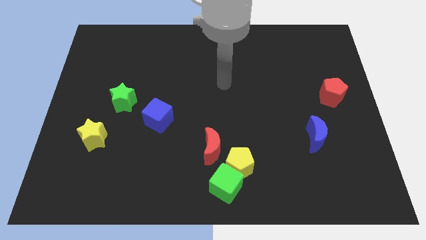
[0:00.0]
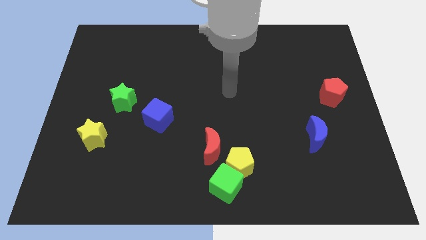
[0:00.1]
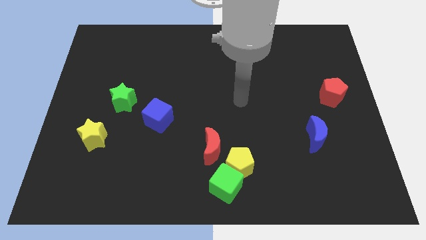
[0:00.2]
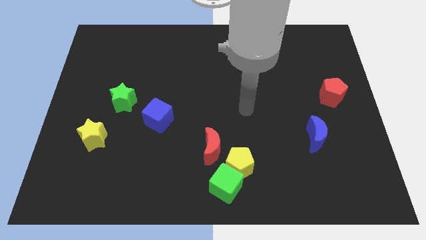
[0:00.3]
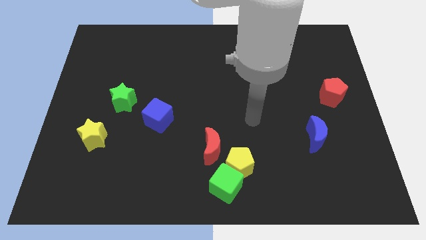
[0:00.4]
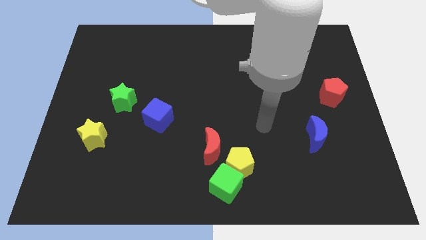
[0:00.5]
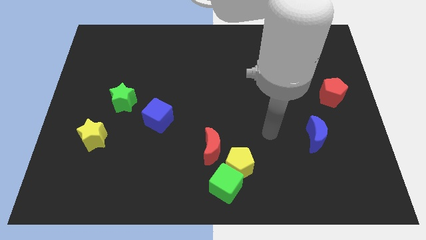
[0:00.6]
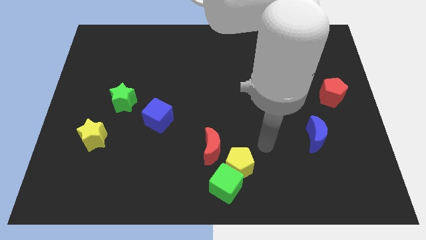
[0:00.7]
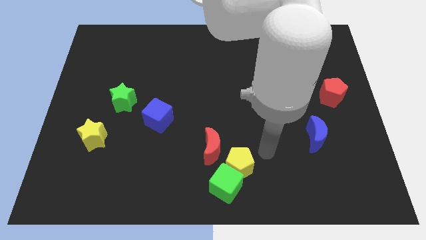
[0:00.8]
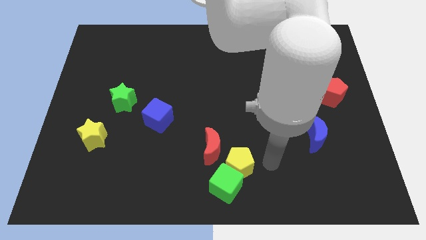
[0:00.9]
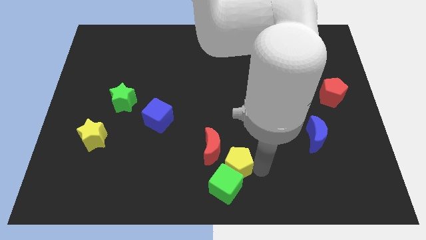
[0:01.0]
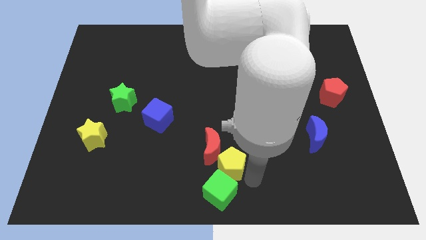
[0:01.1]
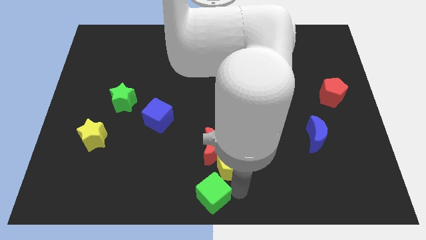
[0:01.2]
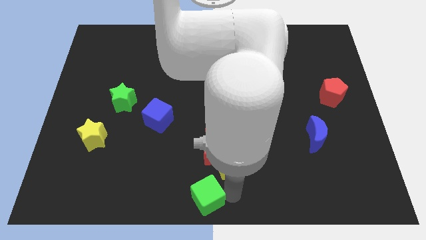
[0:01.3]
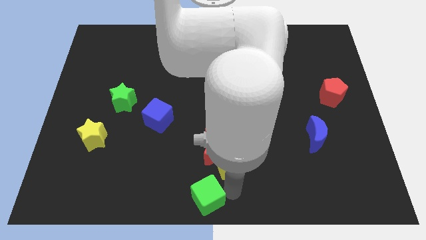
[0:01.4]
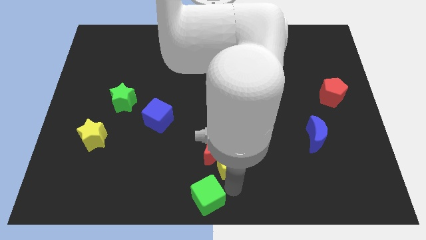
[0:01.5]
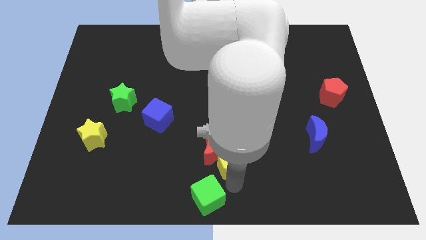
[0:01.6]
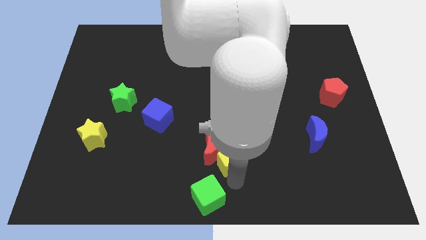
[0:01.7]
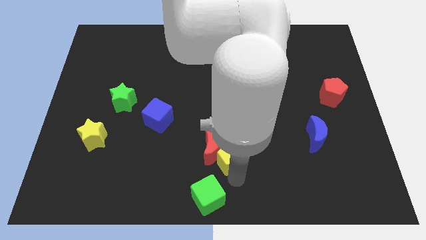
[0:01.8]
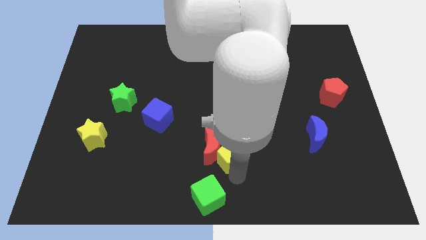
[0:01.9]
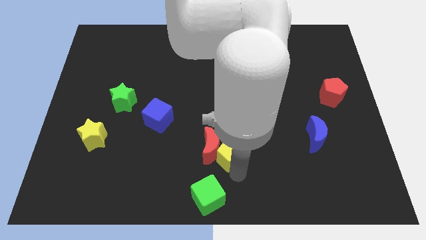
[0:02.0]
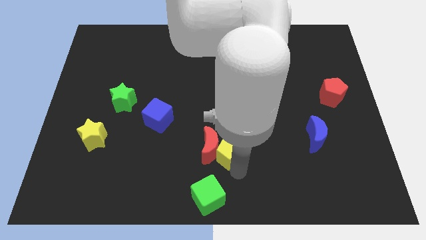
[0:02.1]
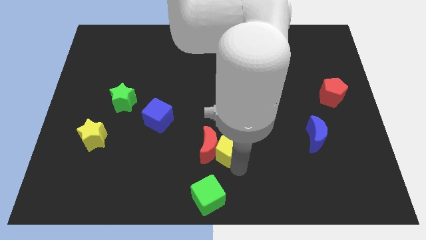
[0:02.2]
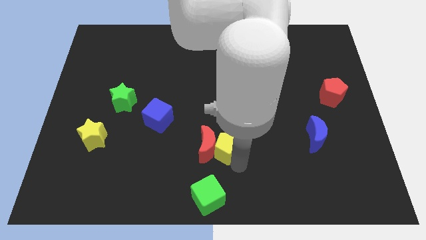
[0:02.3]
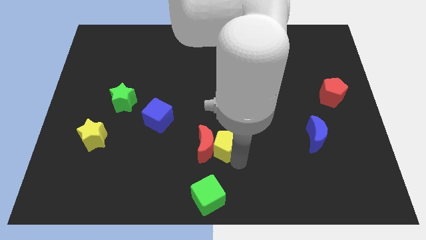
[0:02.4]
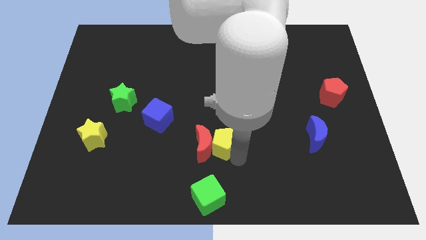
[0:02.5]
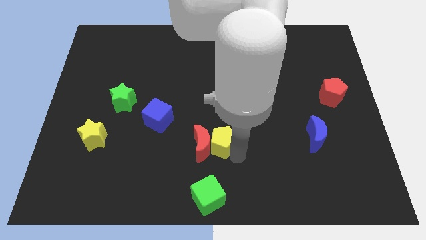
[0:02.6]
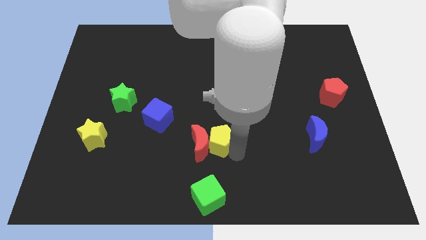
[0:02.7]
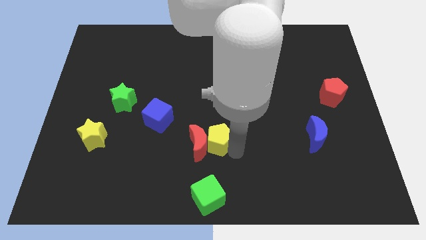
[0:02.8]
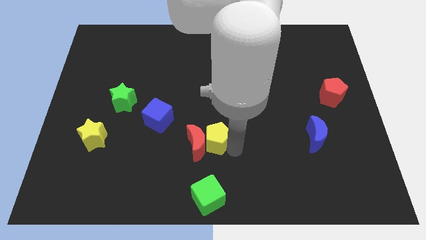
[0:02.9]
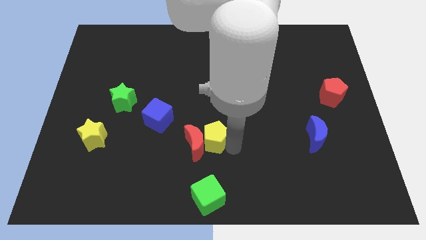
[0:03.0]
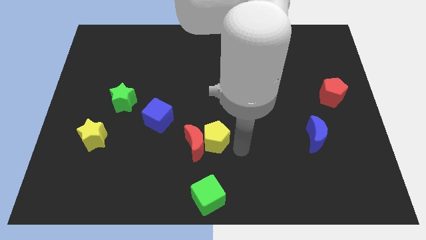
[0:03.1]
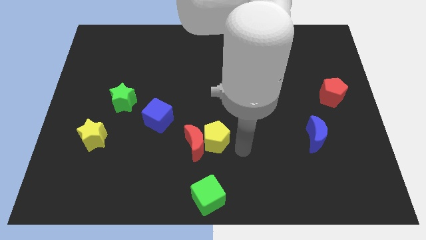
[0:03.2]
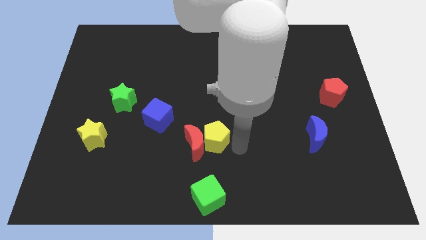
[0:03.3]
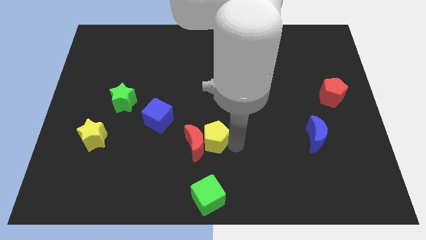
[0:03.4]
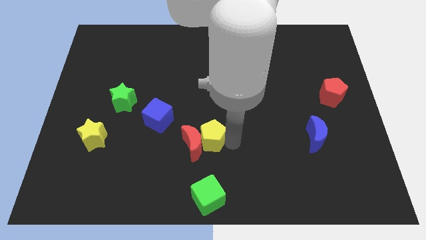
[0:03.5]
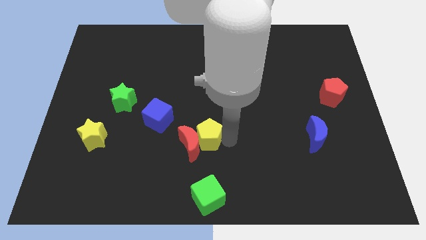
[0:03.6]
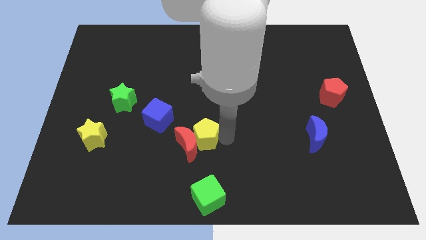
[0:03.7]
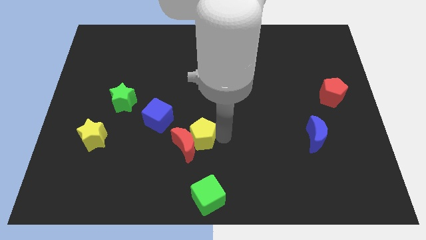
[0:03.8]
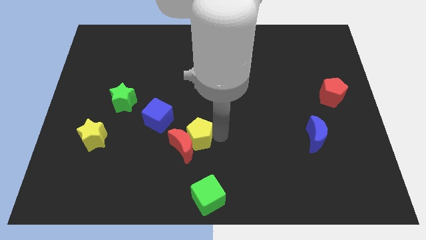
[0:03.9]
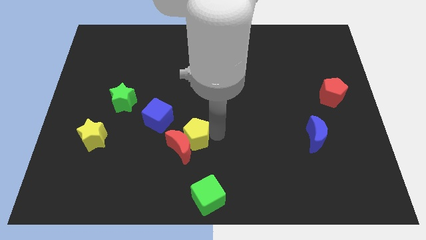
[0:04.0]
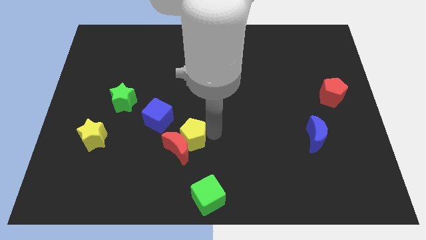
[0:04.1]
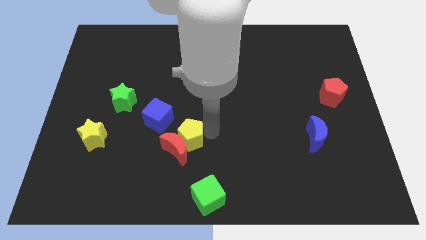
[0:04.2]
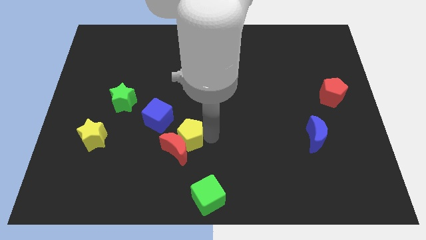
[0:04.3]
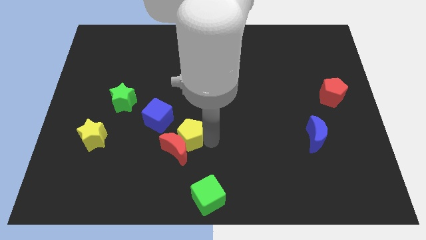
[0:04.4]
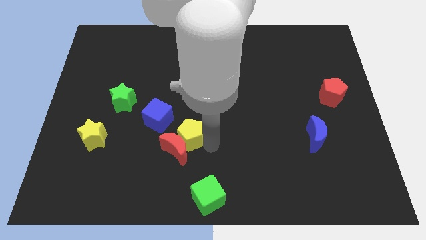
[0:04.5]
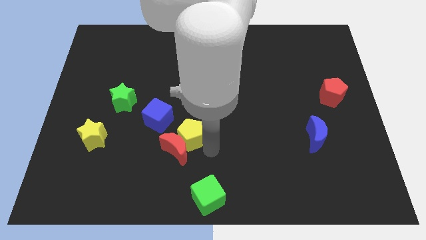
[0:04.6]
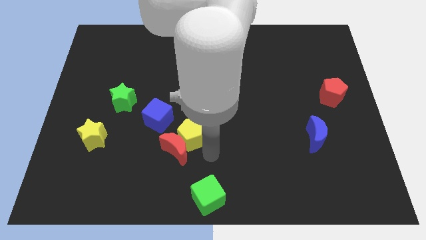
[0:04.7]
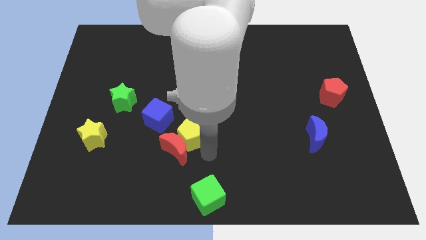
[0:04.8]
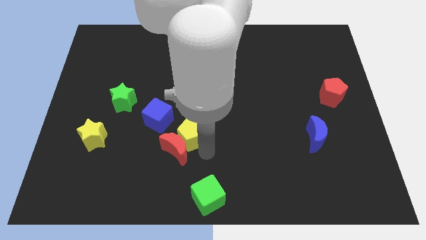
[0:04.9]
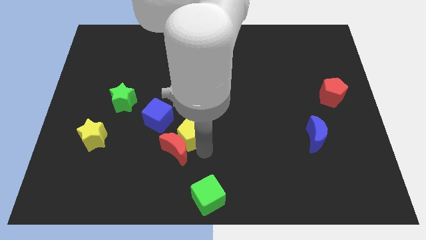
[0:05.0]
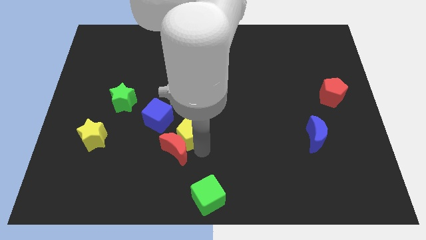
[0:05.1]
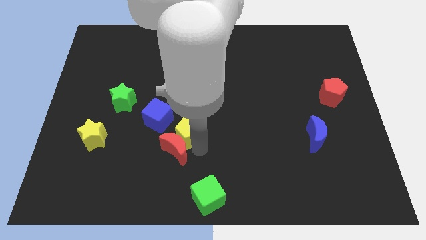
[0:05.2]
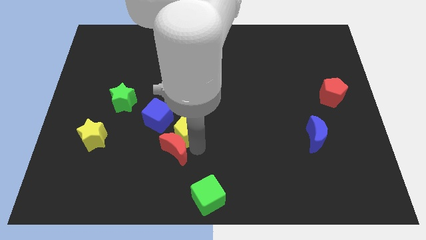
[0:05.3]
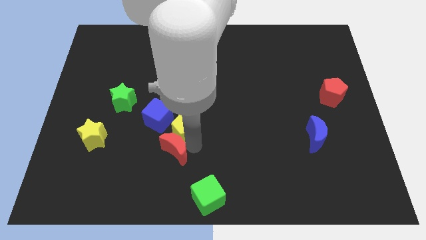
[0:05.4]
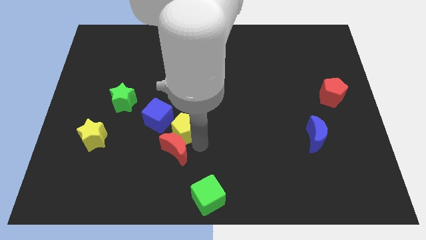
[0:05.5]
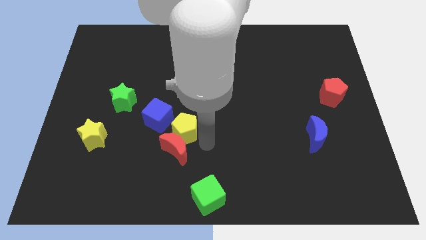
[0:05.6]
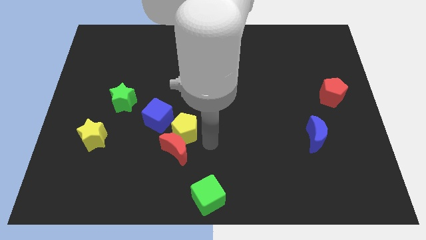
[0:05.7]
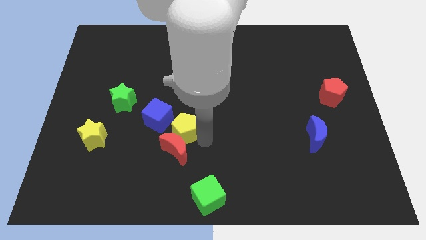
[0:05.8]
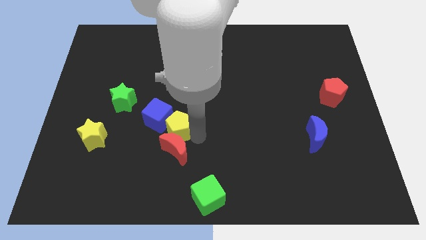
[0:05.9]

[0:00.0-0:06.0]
put the yellow pentagon close to the blue cube
